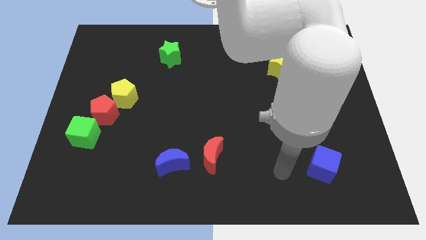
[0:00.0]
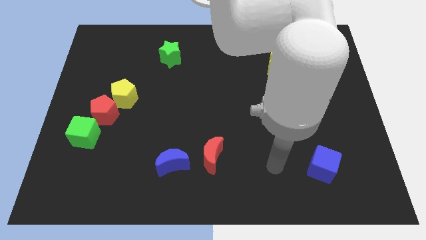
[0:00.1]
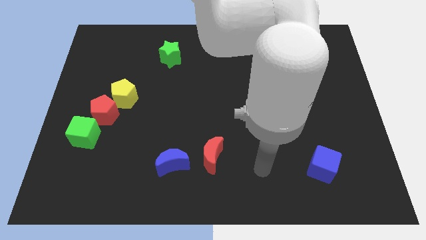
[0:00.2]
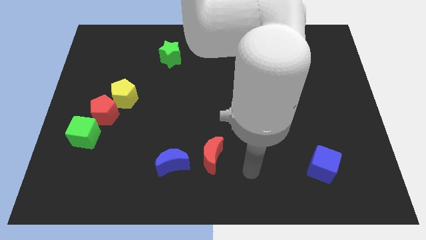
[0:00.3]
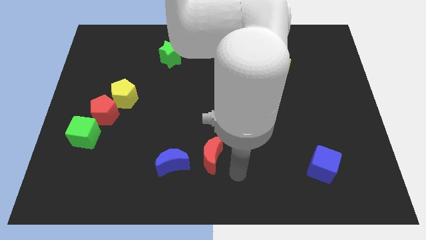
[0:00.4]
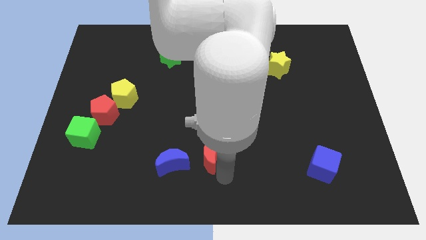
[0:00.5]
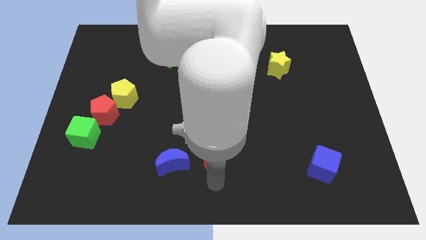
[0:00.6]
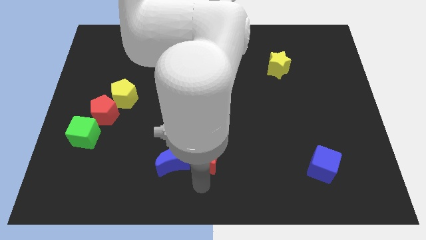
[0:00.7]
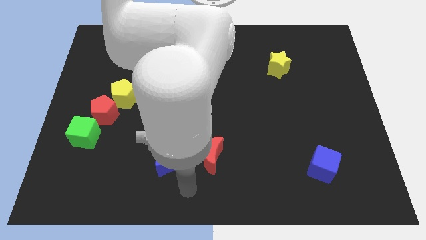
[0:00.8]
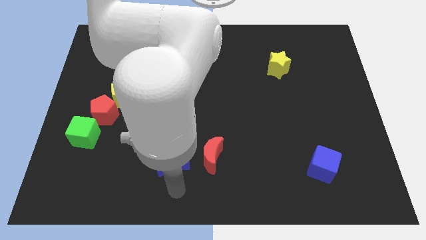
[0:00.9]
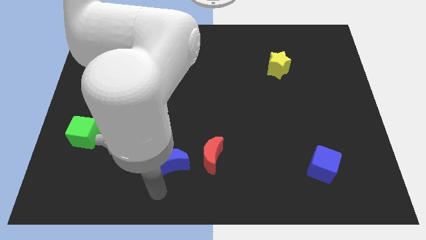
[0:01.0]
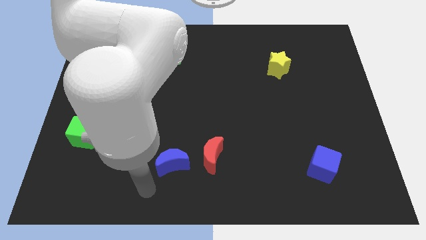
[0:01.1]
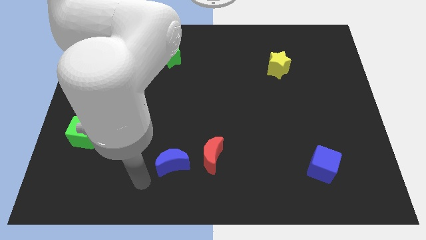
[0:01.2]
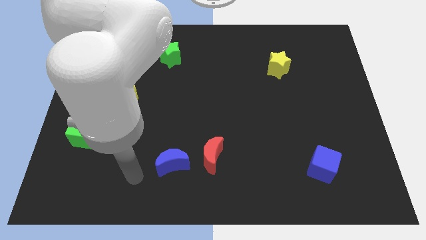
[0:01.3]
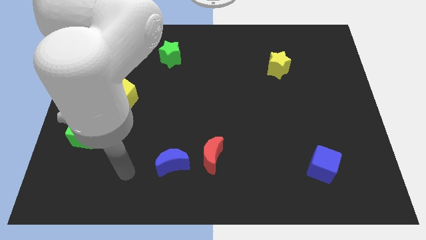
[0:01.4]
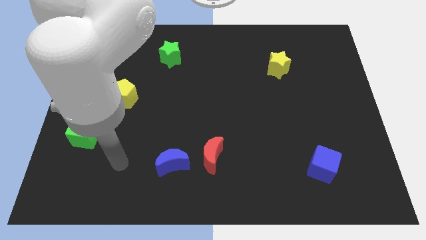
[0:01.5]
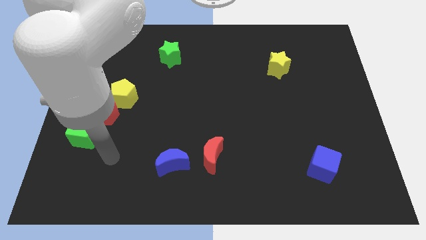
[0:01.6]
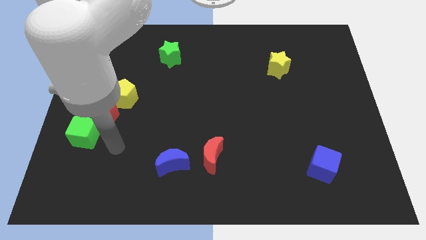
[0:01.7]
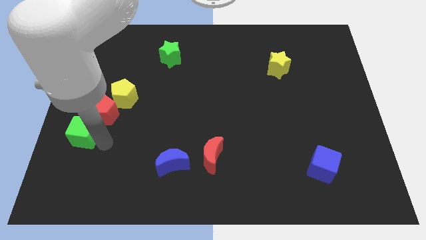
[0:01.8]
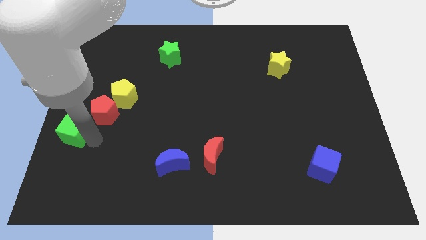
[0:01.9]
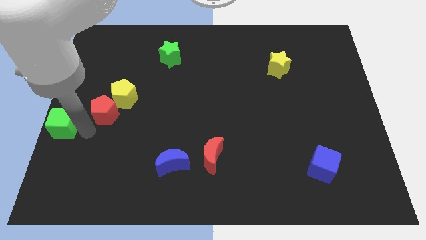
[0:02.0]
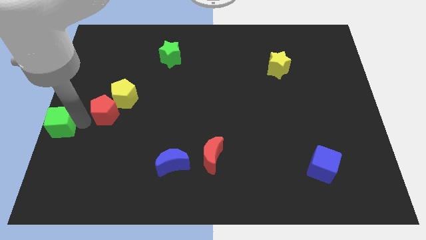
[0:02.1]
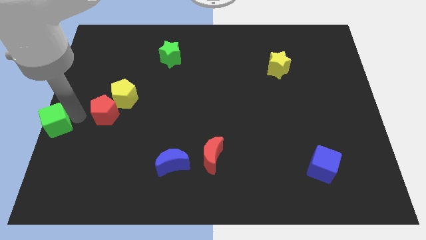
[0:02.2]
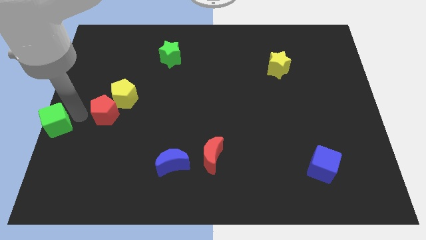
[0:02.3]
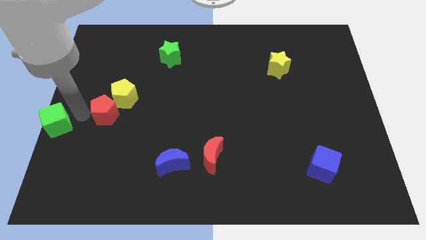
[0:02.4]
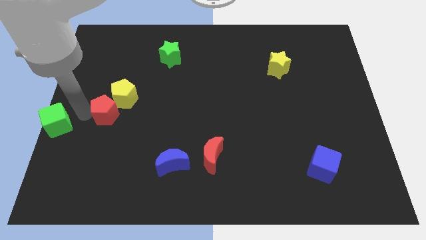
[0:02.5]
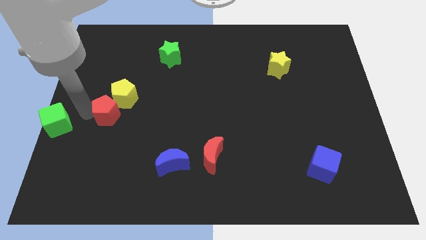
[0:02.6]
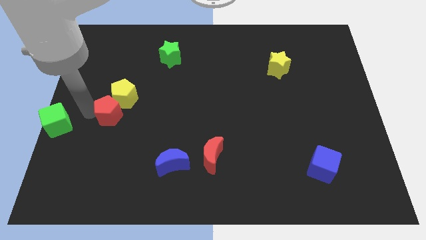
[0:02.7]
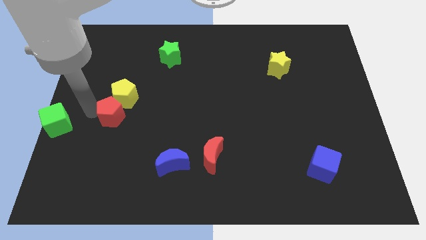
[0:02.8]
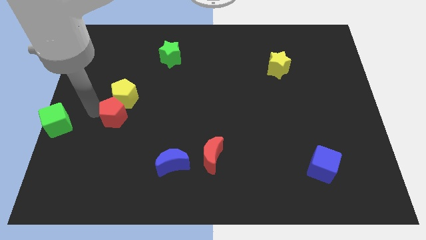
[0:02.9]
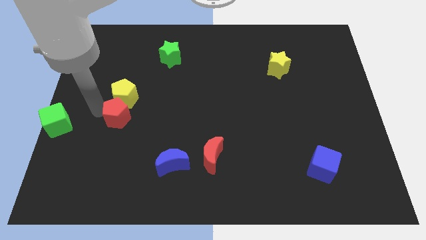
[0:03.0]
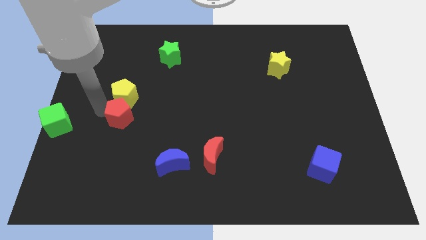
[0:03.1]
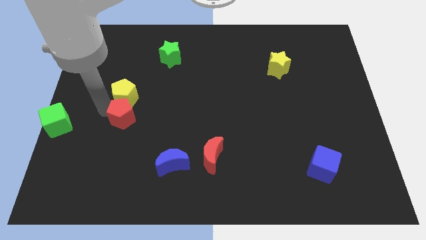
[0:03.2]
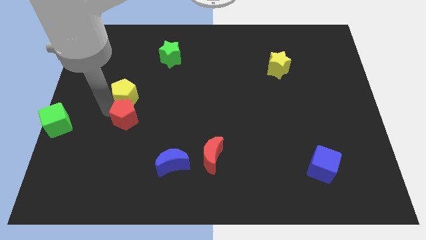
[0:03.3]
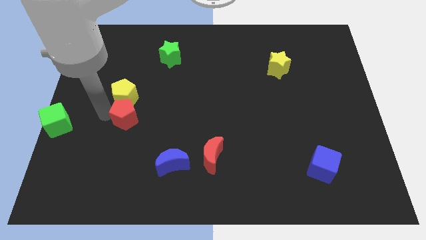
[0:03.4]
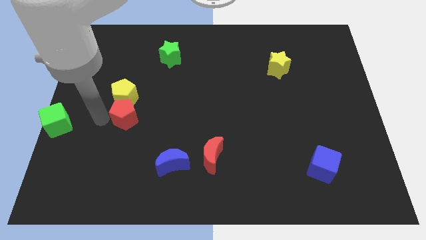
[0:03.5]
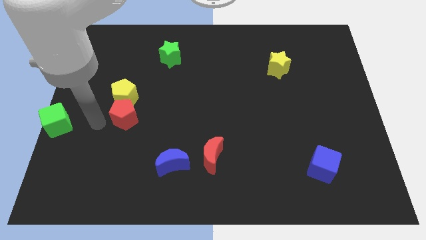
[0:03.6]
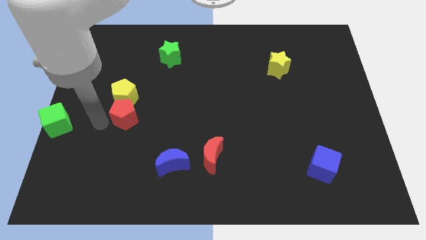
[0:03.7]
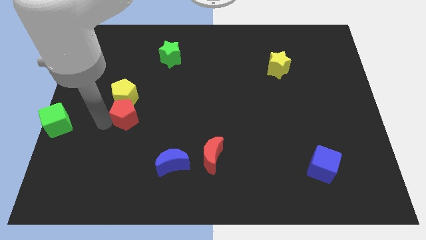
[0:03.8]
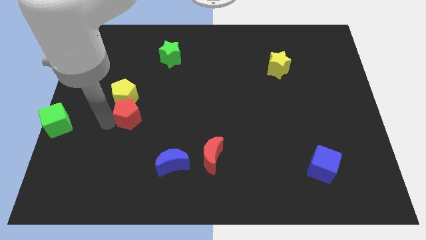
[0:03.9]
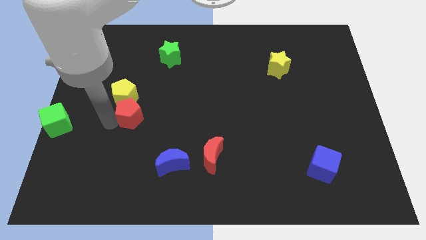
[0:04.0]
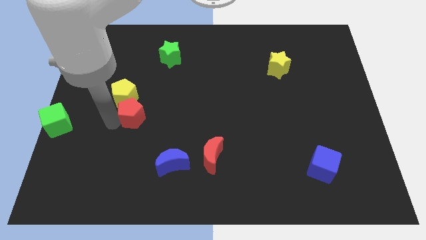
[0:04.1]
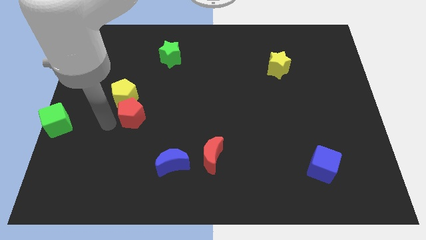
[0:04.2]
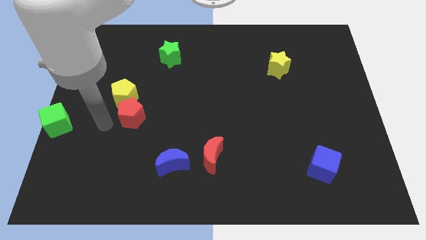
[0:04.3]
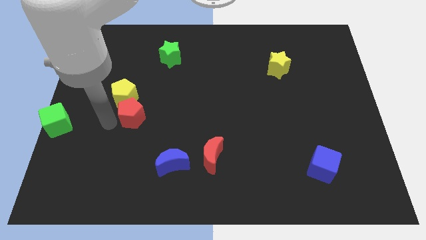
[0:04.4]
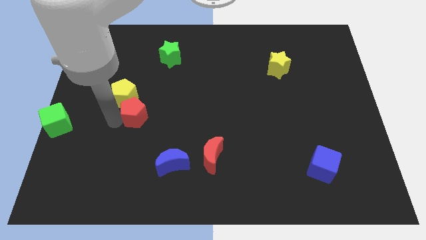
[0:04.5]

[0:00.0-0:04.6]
move the red pentagon a little bit right

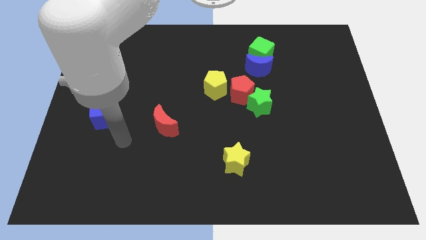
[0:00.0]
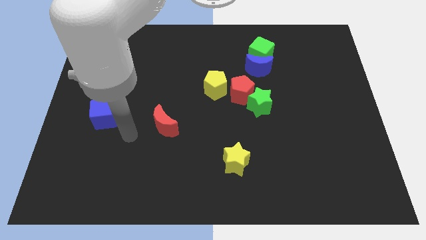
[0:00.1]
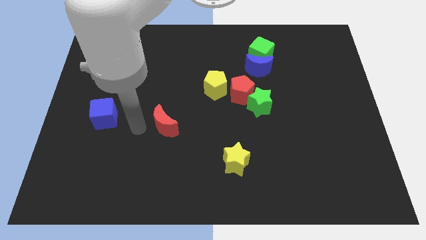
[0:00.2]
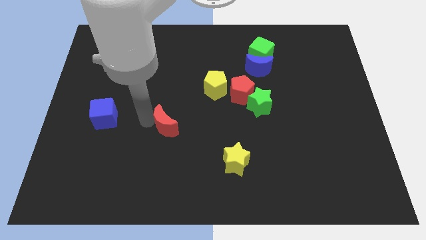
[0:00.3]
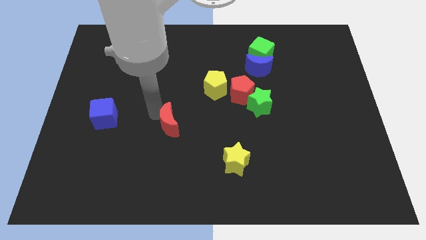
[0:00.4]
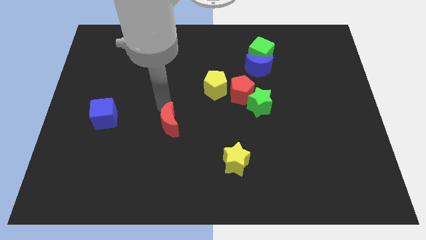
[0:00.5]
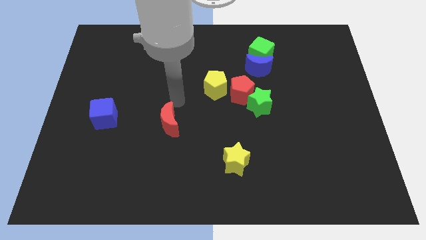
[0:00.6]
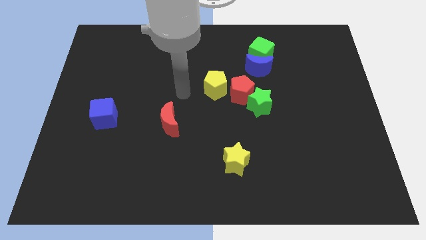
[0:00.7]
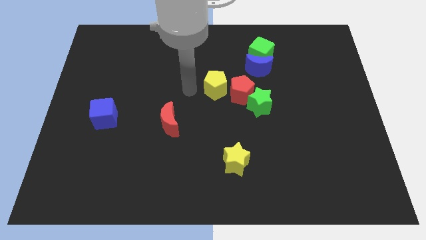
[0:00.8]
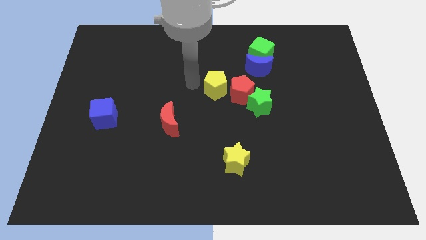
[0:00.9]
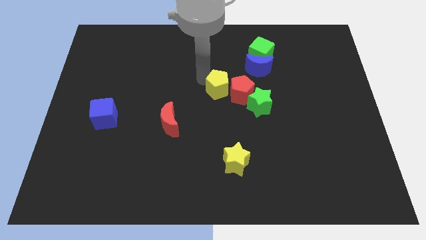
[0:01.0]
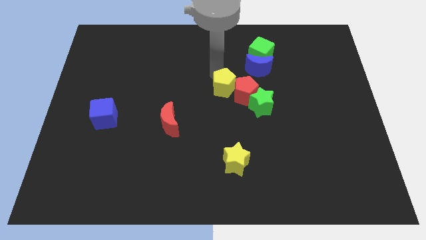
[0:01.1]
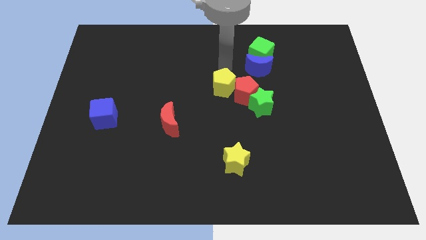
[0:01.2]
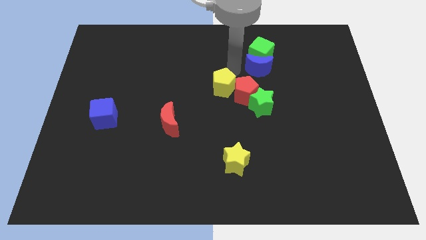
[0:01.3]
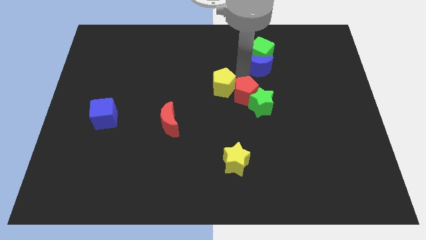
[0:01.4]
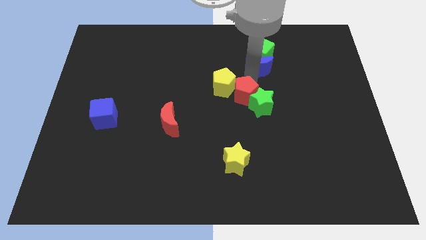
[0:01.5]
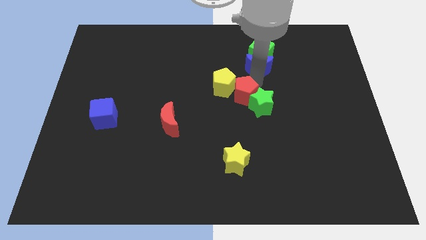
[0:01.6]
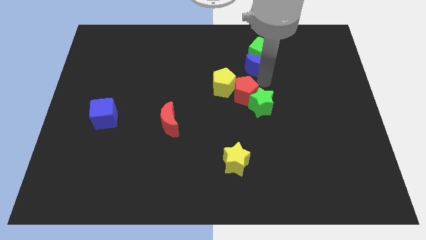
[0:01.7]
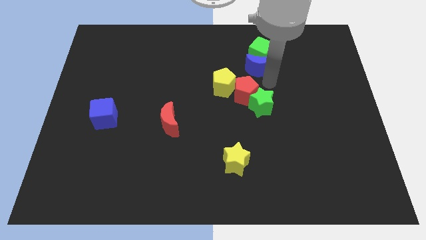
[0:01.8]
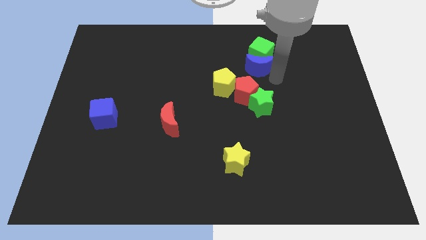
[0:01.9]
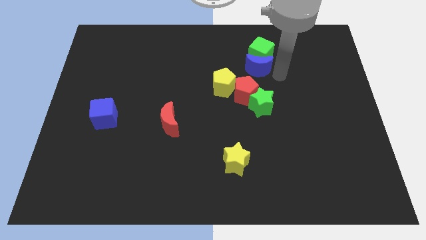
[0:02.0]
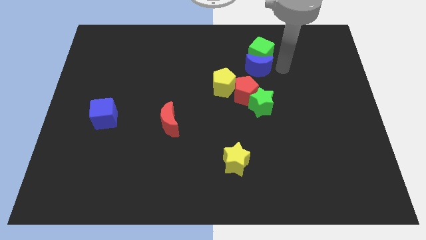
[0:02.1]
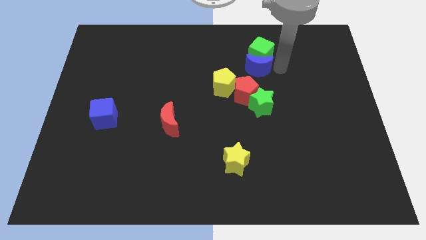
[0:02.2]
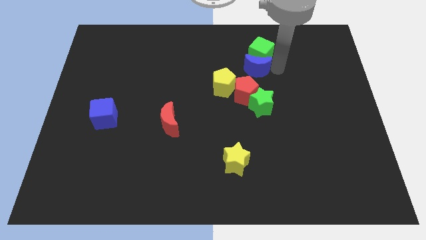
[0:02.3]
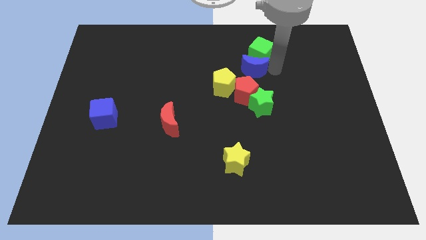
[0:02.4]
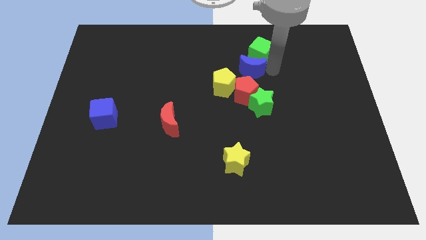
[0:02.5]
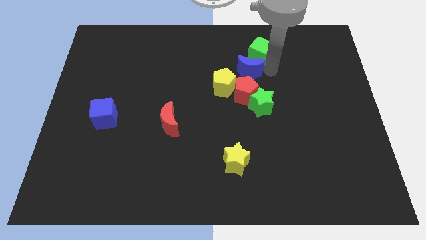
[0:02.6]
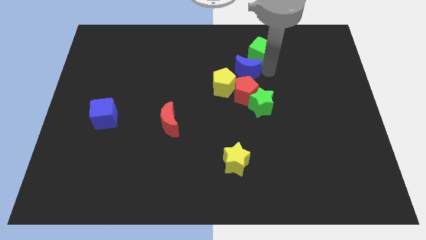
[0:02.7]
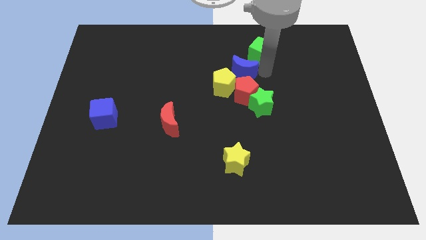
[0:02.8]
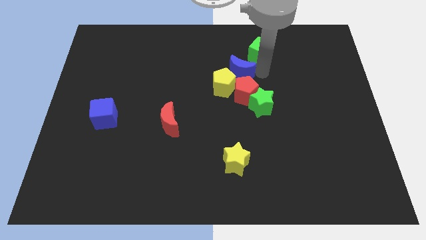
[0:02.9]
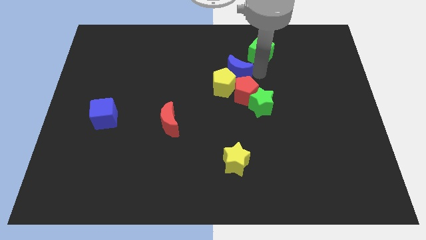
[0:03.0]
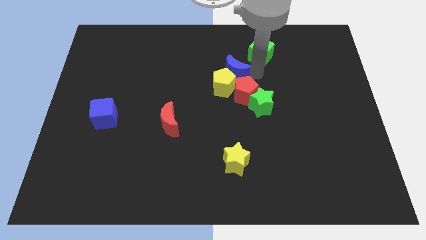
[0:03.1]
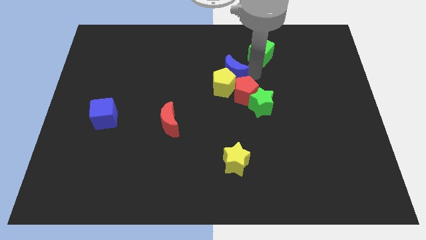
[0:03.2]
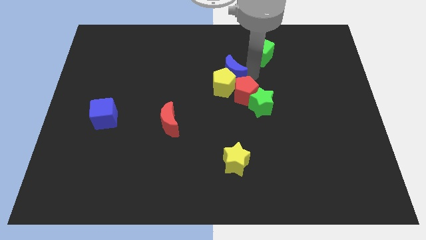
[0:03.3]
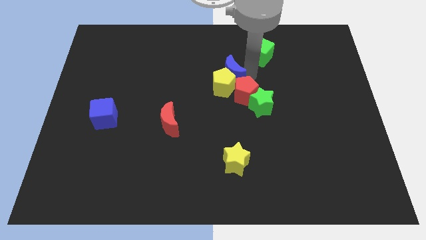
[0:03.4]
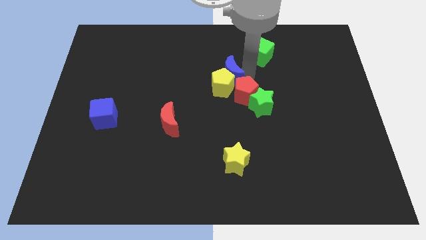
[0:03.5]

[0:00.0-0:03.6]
push the blue moon slightly left

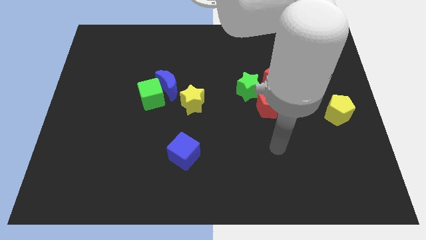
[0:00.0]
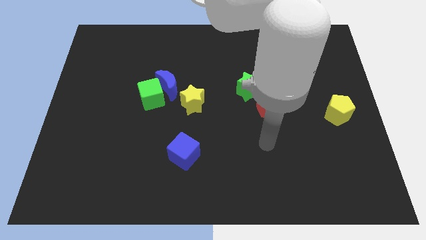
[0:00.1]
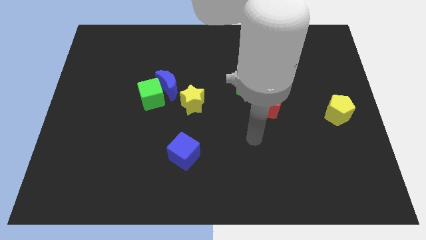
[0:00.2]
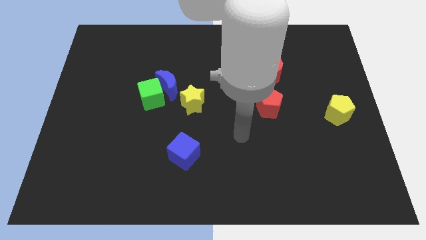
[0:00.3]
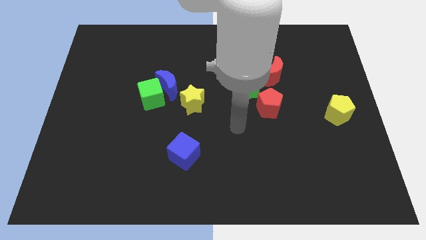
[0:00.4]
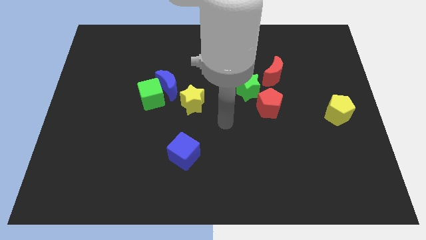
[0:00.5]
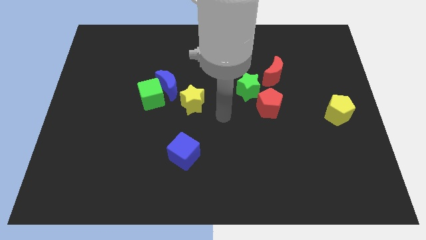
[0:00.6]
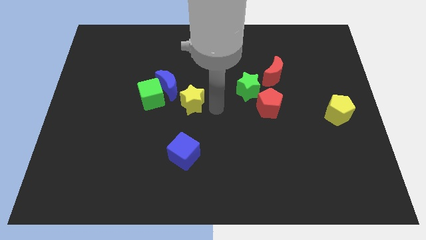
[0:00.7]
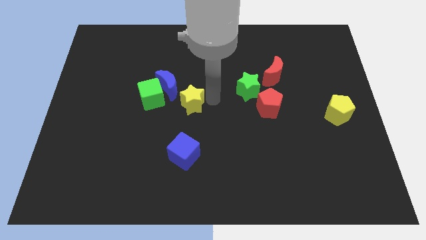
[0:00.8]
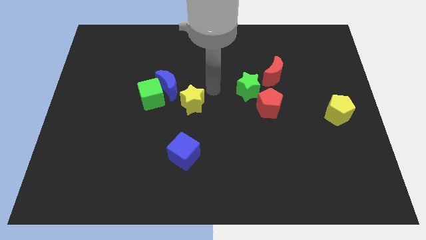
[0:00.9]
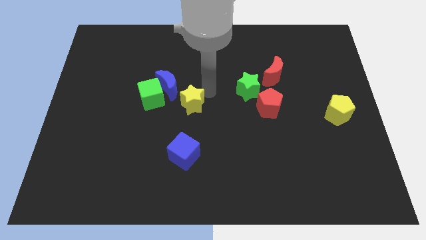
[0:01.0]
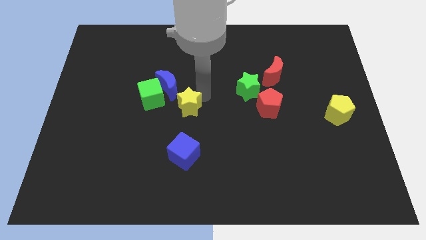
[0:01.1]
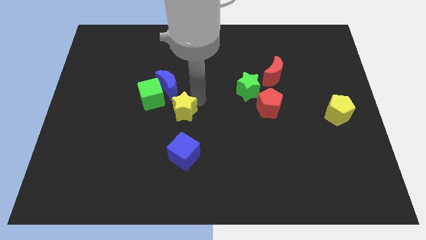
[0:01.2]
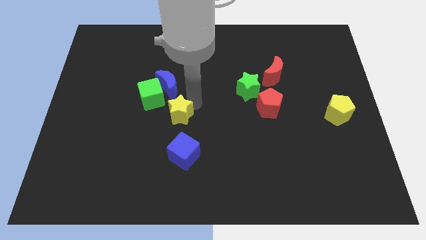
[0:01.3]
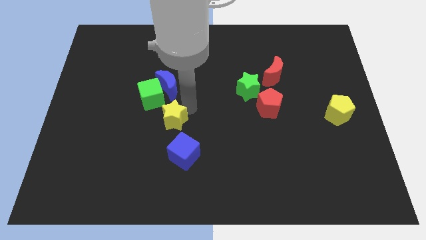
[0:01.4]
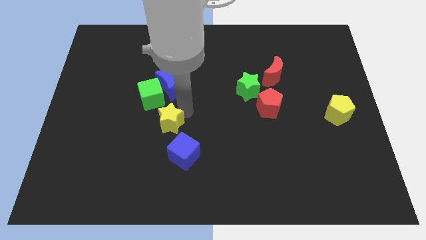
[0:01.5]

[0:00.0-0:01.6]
slide the yellow star diagonally downwards and to the left slightly
